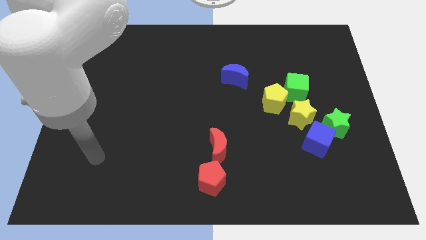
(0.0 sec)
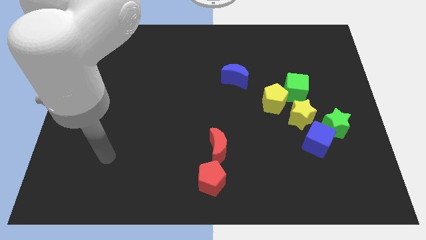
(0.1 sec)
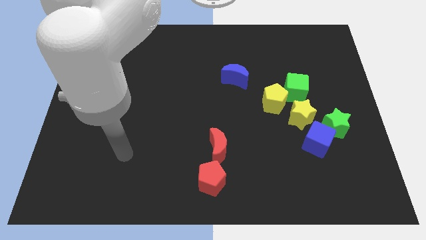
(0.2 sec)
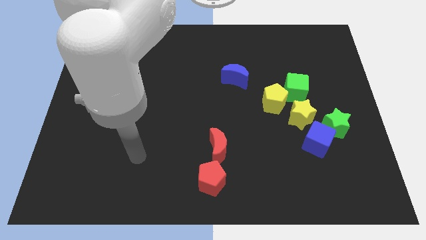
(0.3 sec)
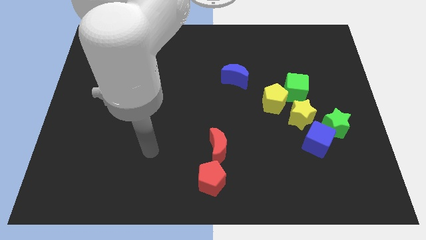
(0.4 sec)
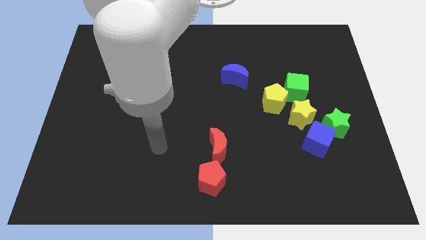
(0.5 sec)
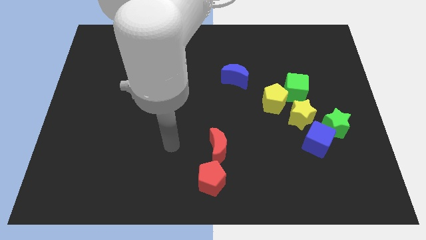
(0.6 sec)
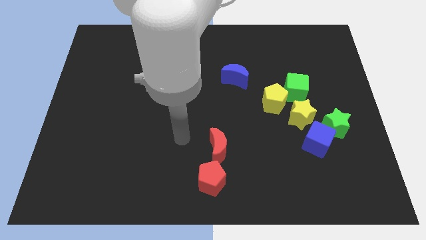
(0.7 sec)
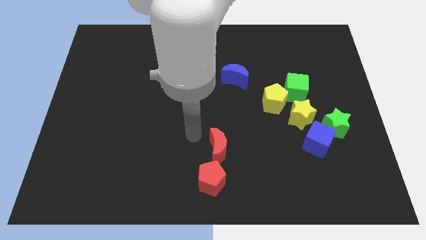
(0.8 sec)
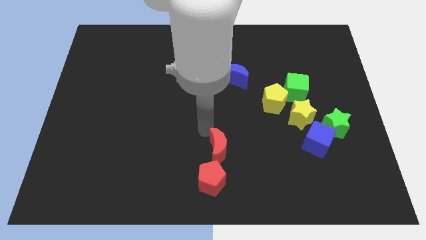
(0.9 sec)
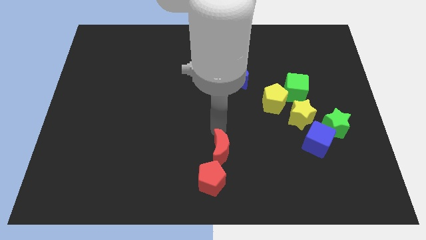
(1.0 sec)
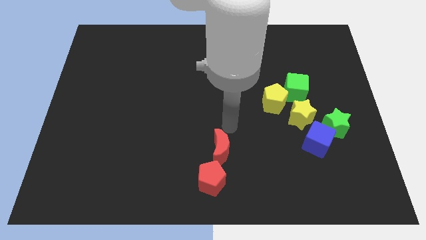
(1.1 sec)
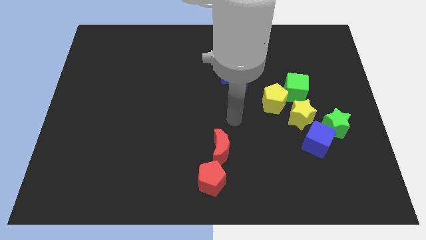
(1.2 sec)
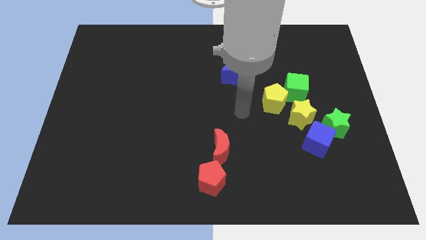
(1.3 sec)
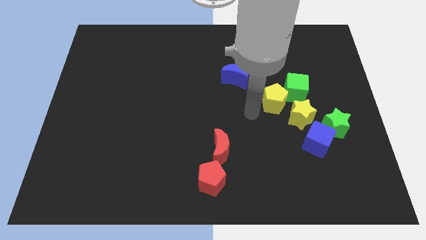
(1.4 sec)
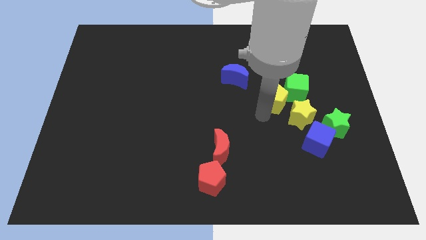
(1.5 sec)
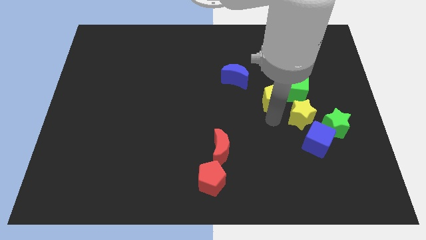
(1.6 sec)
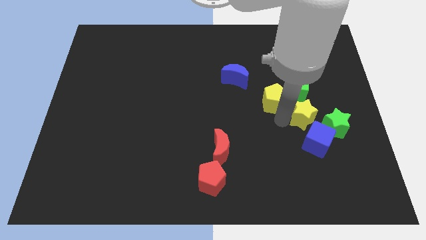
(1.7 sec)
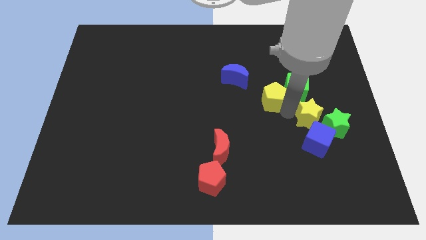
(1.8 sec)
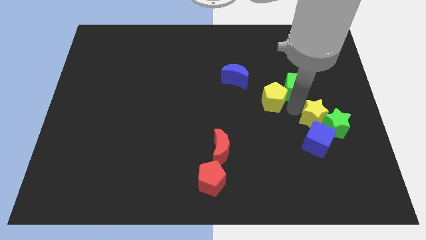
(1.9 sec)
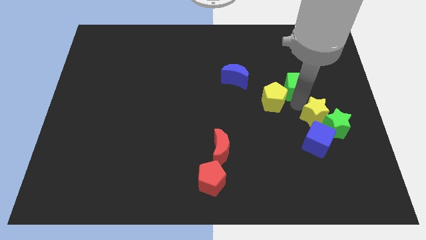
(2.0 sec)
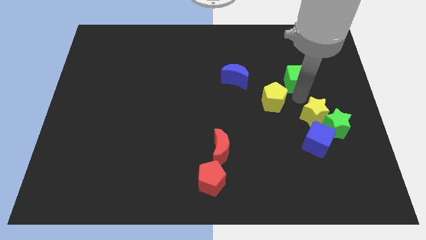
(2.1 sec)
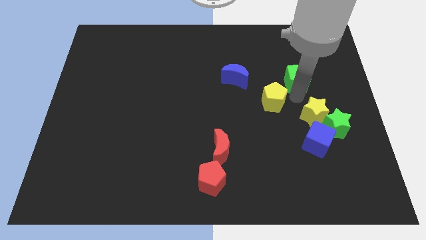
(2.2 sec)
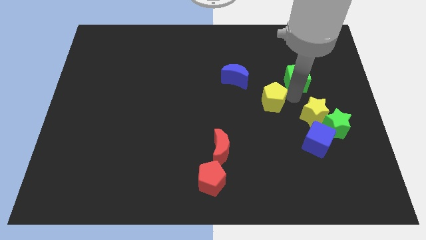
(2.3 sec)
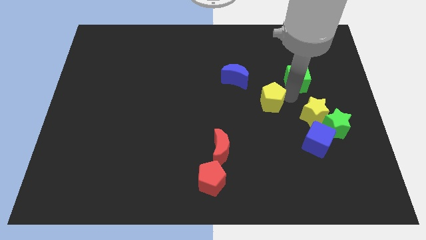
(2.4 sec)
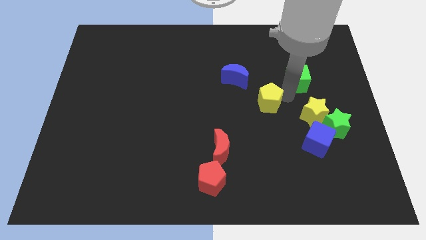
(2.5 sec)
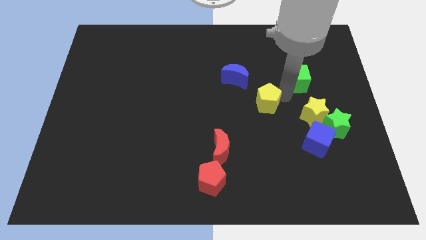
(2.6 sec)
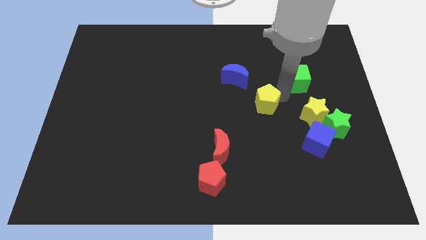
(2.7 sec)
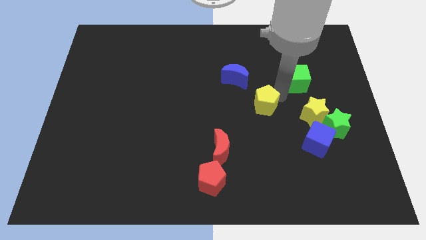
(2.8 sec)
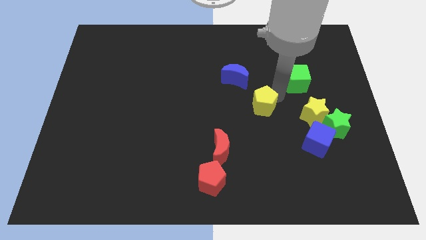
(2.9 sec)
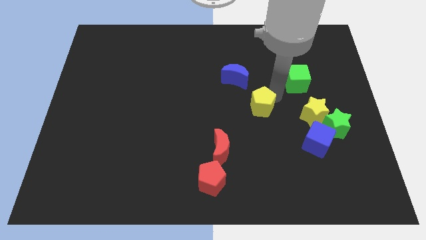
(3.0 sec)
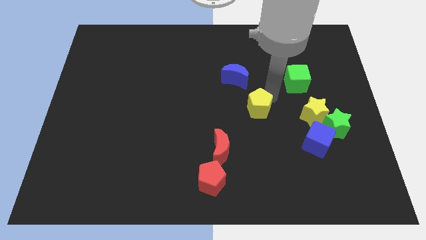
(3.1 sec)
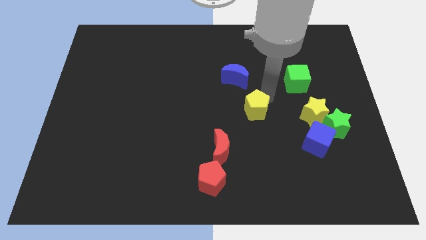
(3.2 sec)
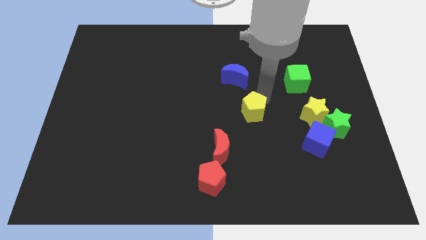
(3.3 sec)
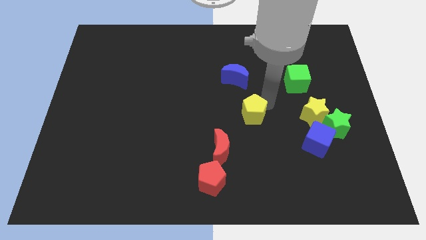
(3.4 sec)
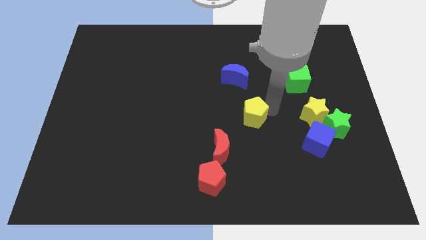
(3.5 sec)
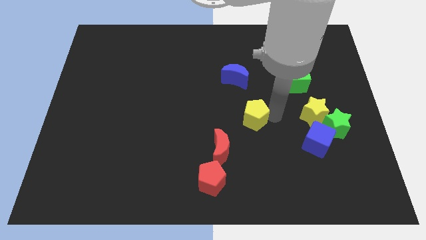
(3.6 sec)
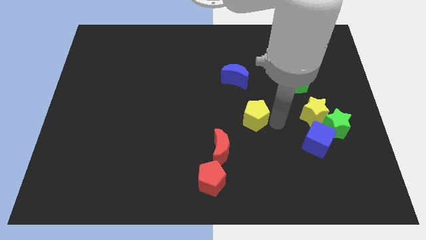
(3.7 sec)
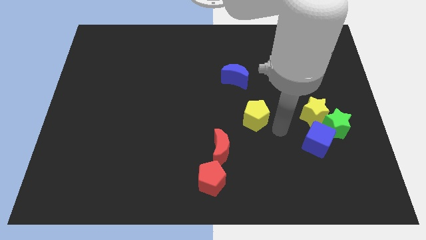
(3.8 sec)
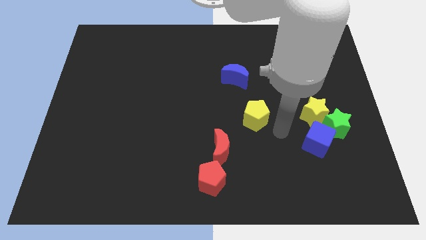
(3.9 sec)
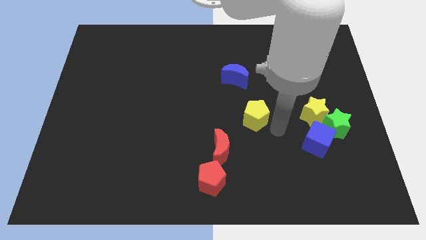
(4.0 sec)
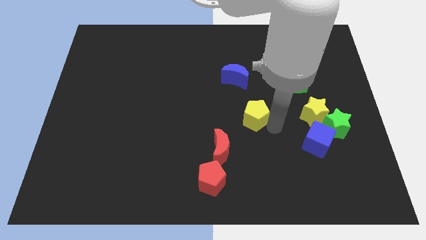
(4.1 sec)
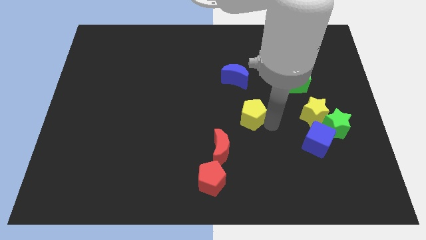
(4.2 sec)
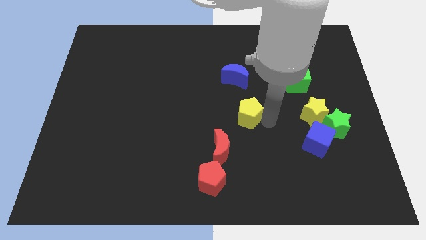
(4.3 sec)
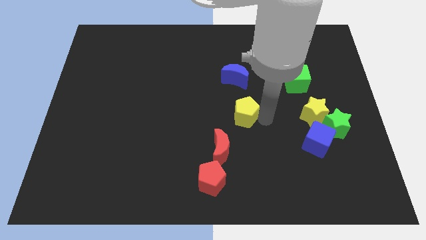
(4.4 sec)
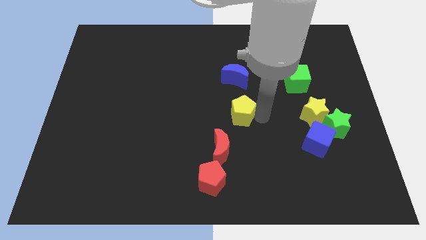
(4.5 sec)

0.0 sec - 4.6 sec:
slightly push the yellow pentagon left

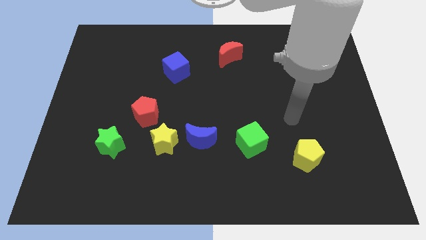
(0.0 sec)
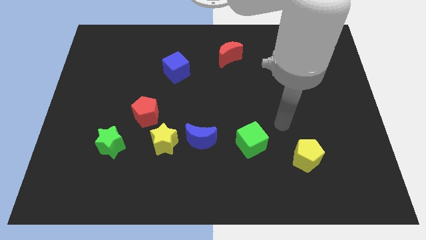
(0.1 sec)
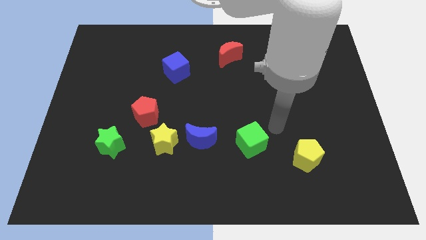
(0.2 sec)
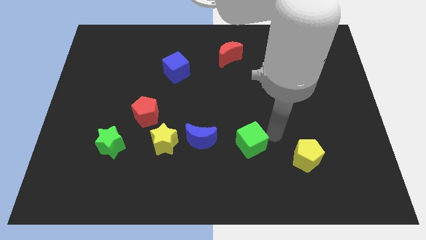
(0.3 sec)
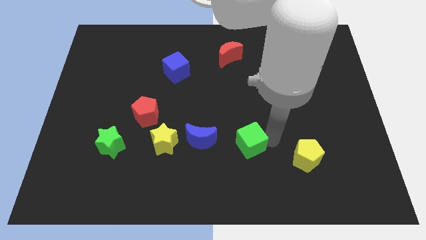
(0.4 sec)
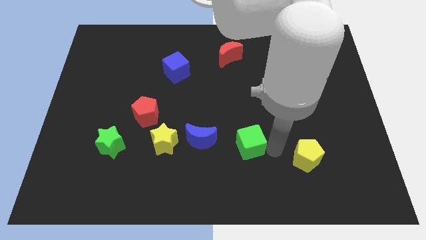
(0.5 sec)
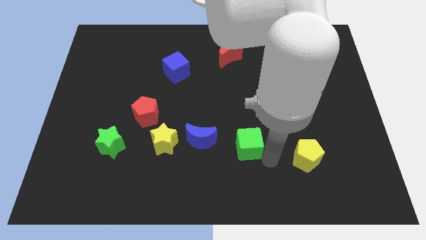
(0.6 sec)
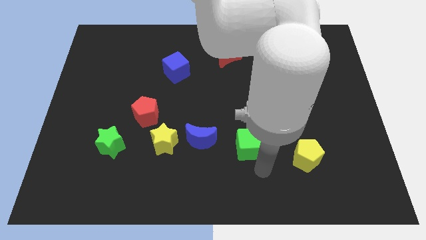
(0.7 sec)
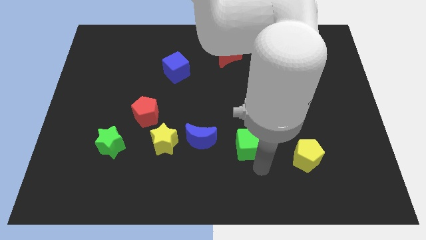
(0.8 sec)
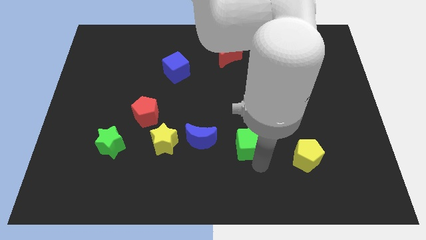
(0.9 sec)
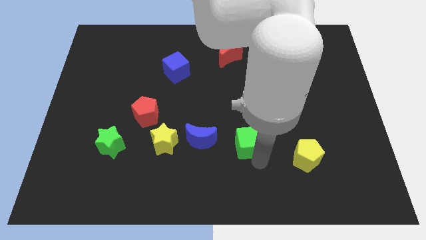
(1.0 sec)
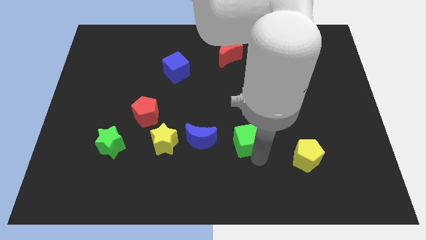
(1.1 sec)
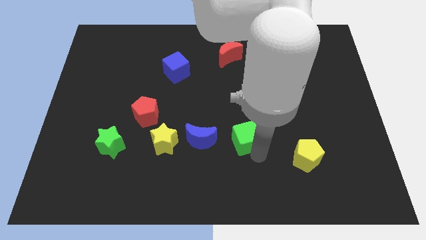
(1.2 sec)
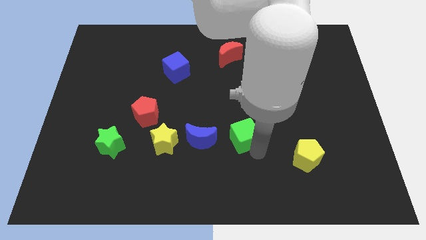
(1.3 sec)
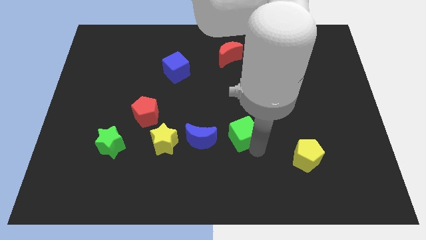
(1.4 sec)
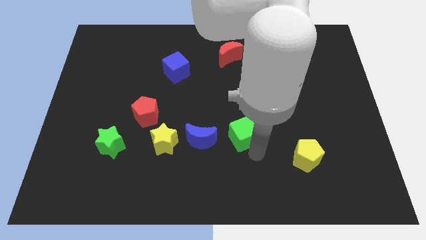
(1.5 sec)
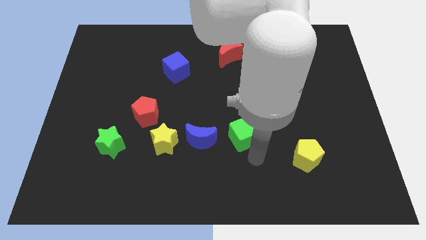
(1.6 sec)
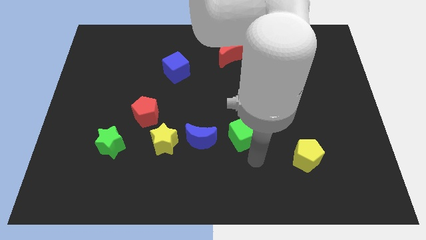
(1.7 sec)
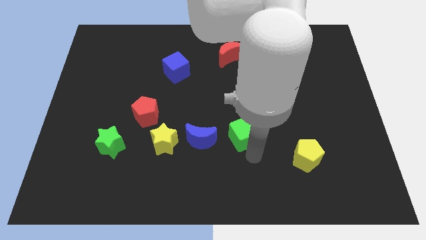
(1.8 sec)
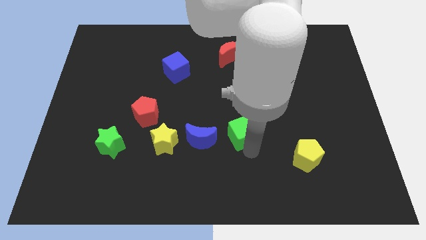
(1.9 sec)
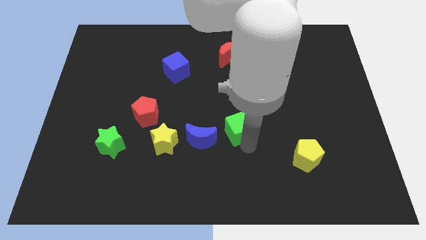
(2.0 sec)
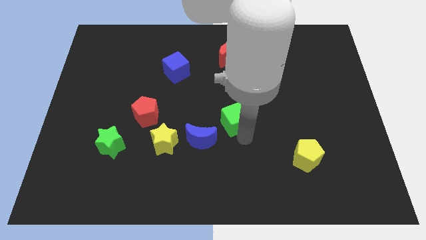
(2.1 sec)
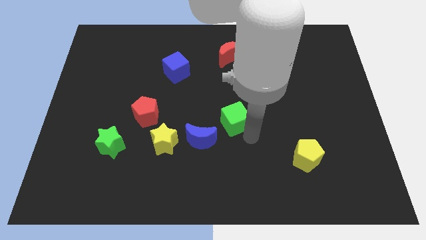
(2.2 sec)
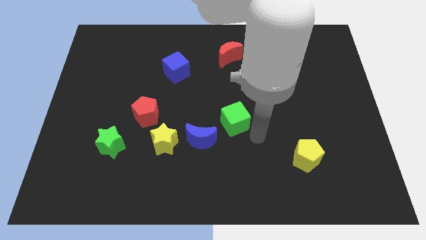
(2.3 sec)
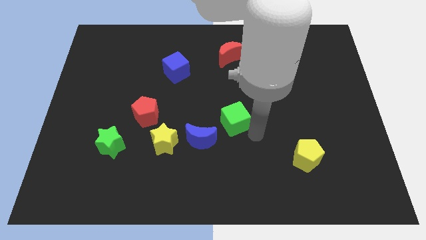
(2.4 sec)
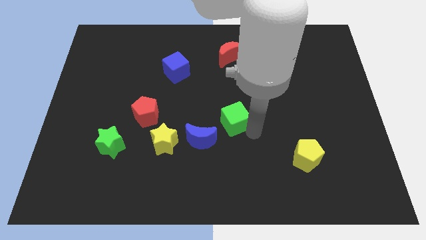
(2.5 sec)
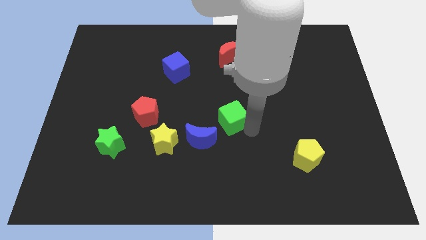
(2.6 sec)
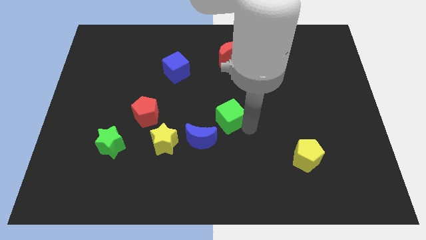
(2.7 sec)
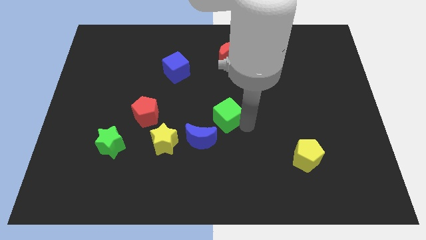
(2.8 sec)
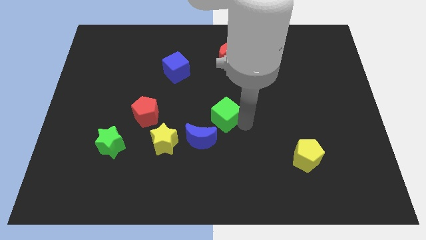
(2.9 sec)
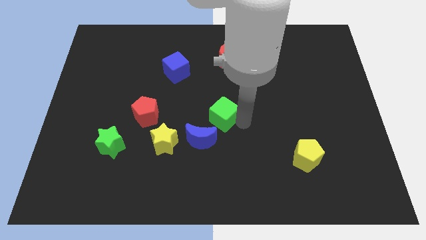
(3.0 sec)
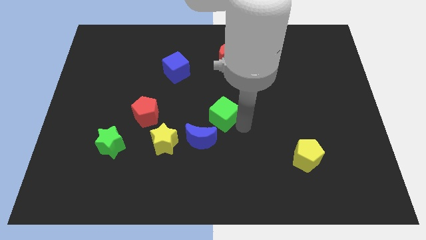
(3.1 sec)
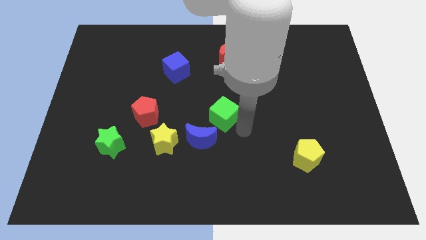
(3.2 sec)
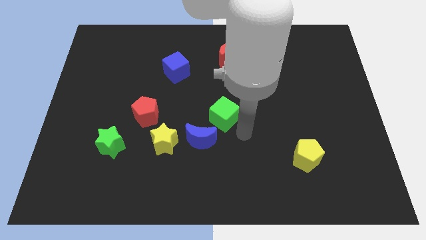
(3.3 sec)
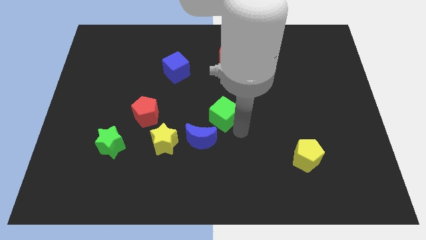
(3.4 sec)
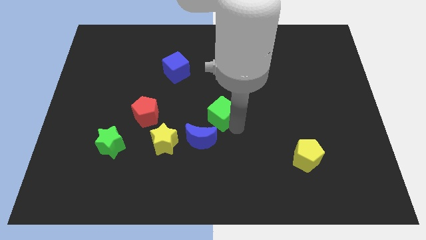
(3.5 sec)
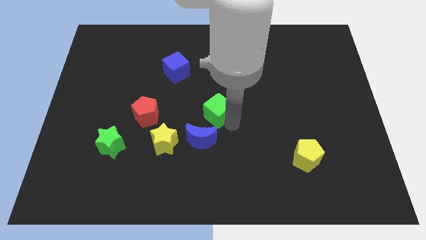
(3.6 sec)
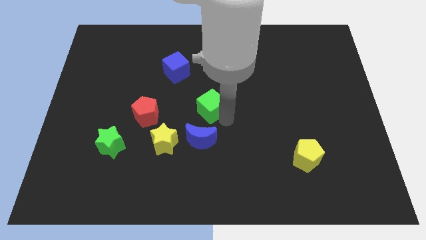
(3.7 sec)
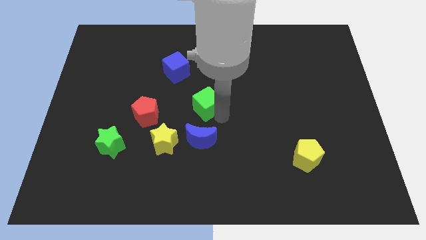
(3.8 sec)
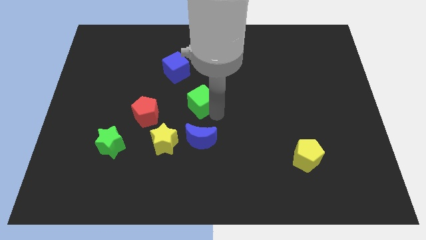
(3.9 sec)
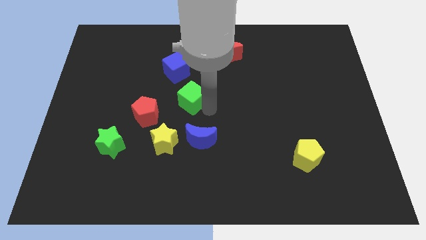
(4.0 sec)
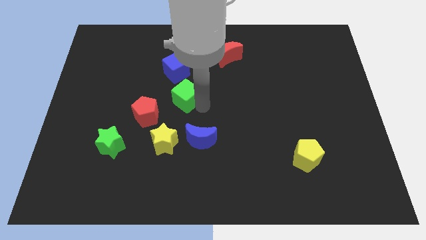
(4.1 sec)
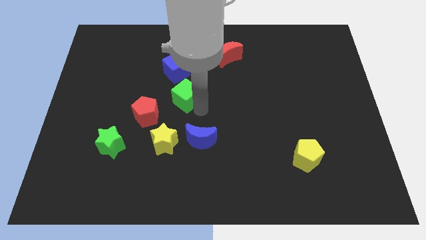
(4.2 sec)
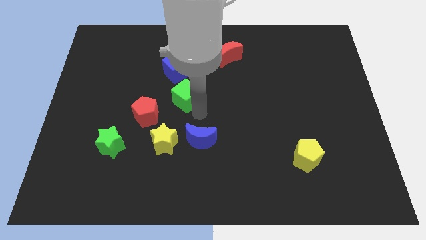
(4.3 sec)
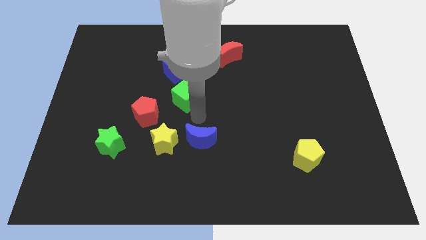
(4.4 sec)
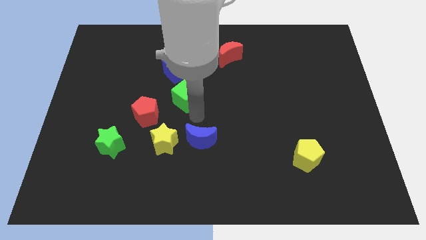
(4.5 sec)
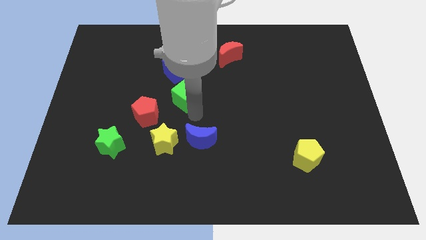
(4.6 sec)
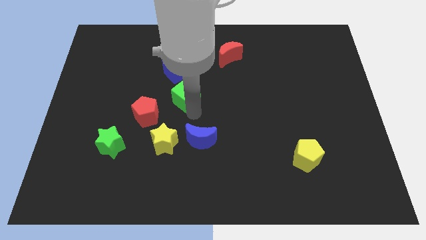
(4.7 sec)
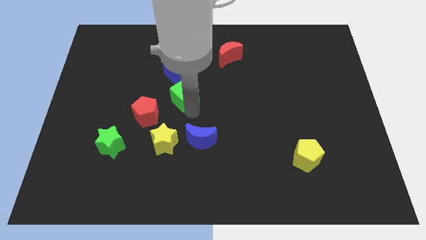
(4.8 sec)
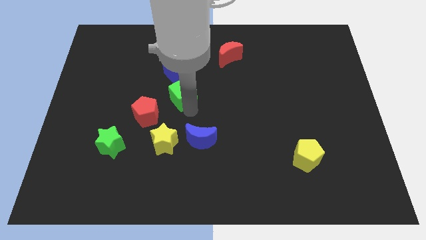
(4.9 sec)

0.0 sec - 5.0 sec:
push the green cube up and then left
